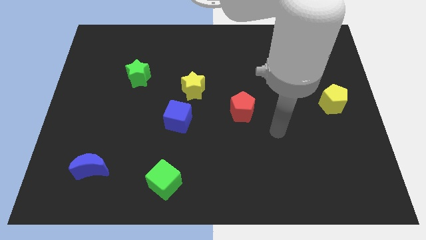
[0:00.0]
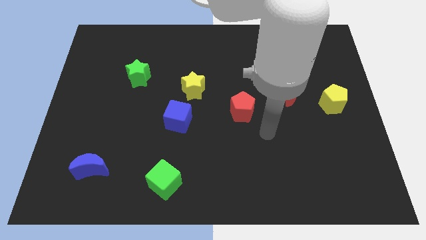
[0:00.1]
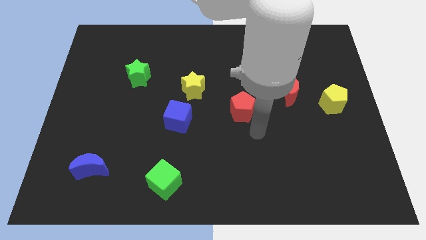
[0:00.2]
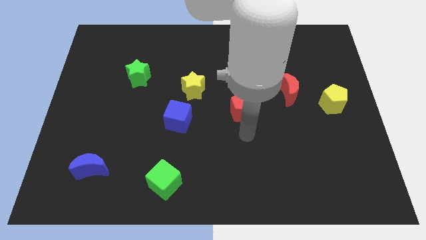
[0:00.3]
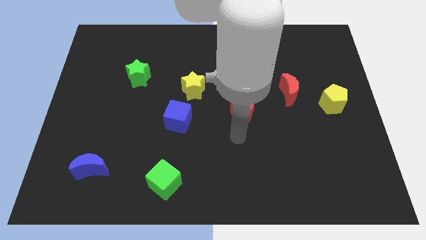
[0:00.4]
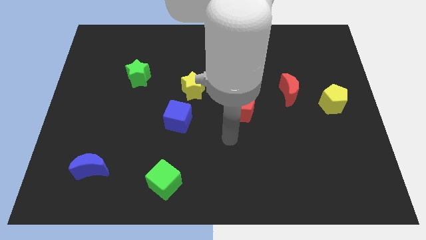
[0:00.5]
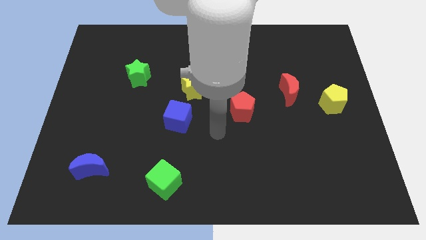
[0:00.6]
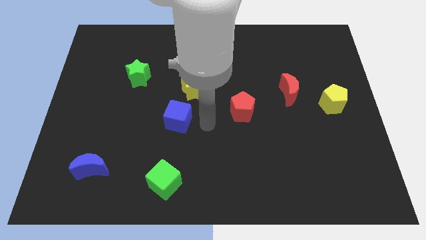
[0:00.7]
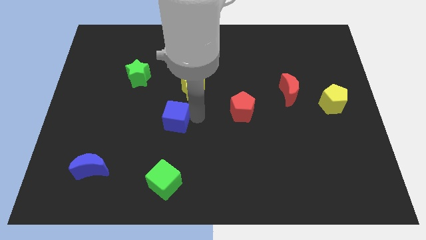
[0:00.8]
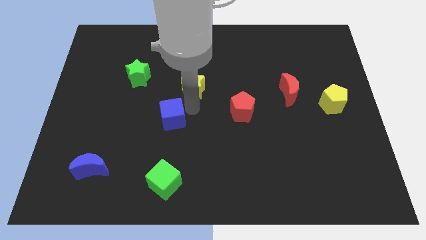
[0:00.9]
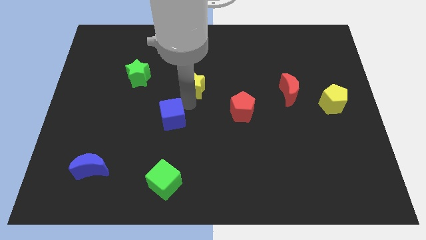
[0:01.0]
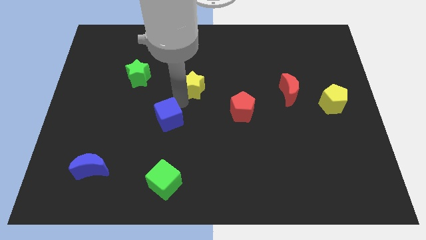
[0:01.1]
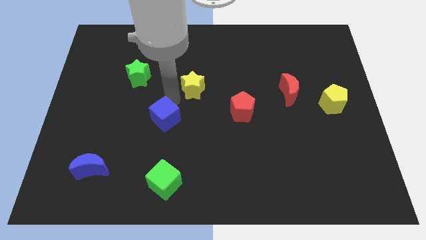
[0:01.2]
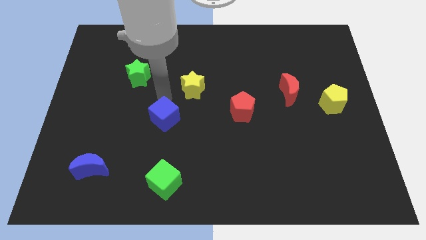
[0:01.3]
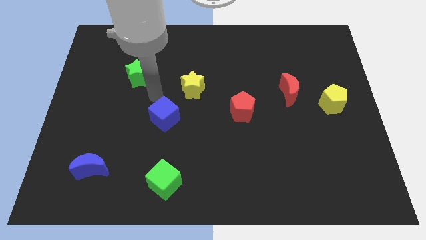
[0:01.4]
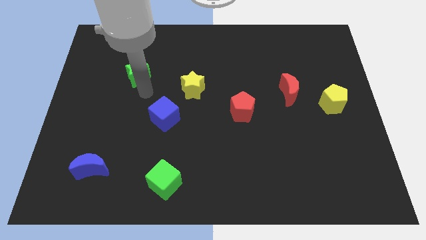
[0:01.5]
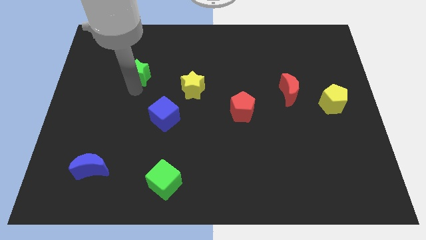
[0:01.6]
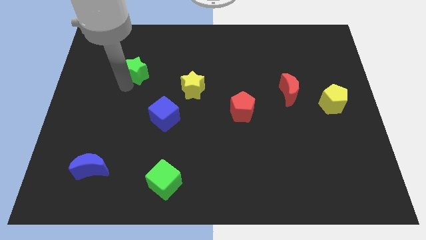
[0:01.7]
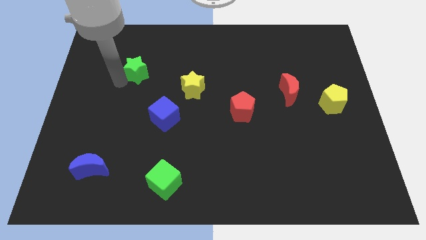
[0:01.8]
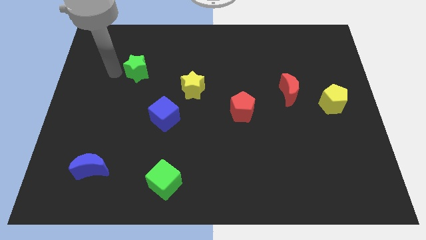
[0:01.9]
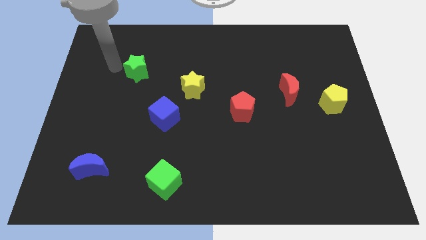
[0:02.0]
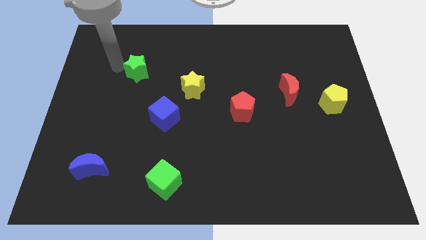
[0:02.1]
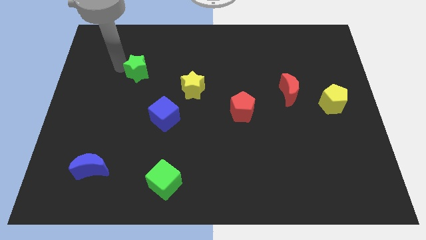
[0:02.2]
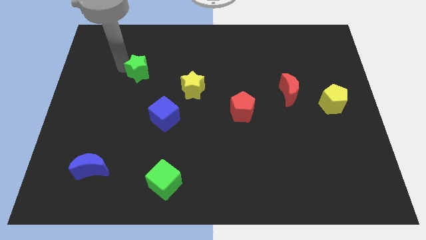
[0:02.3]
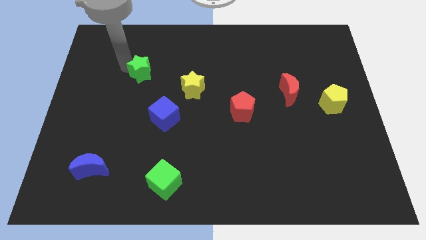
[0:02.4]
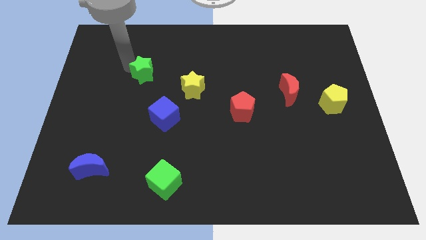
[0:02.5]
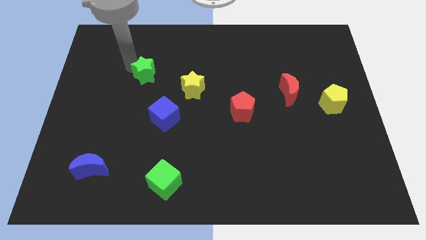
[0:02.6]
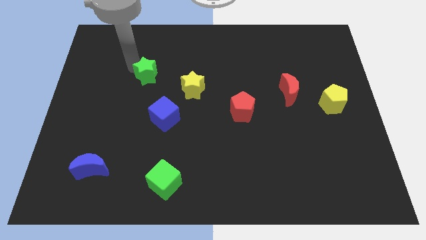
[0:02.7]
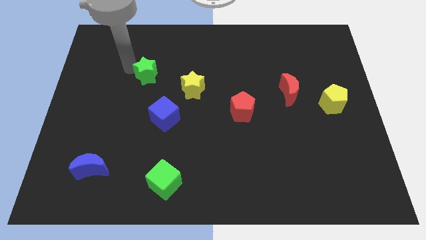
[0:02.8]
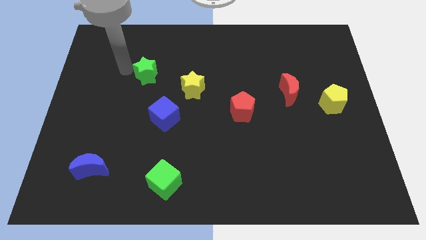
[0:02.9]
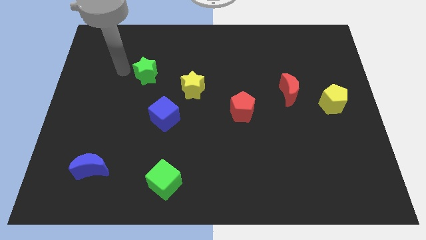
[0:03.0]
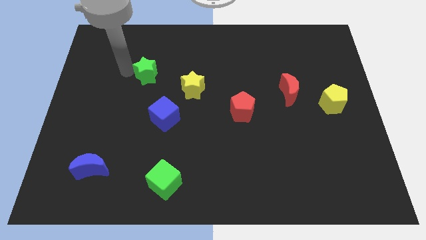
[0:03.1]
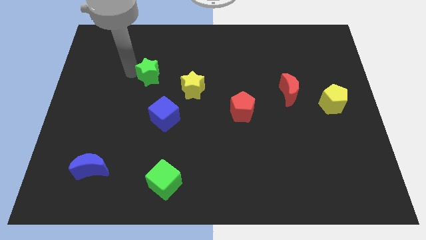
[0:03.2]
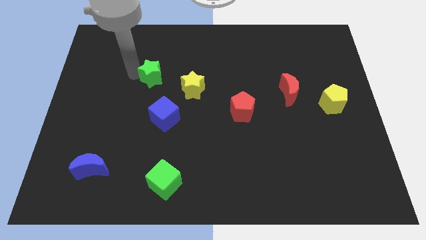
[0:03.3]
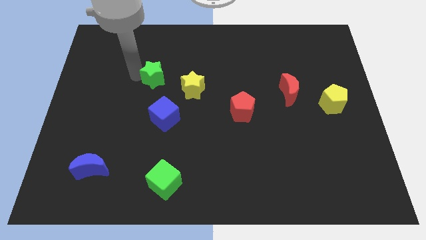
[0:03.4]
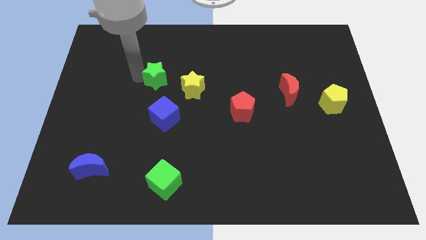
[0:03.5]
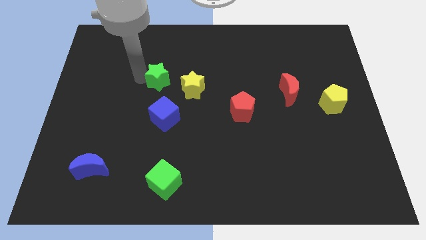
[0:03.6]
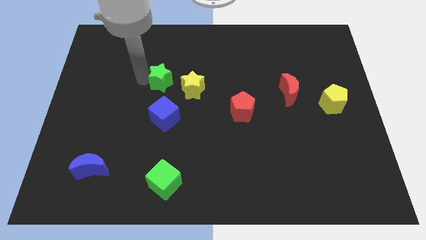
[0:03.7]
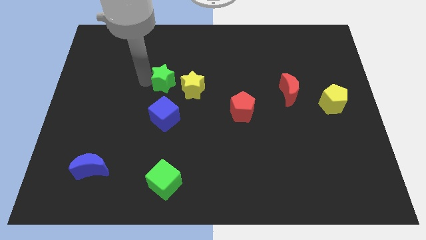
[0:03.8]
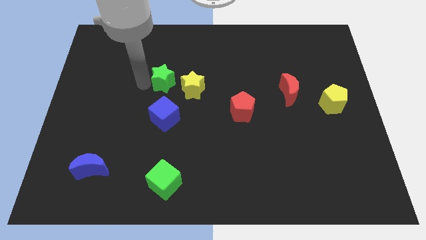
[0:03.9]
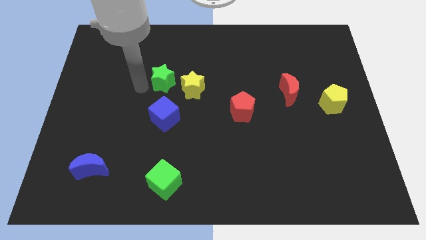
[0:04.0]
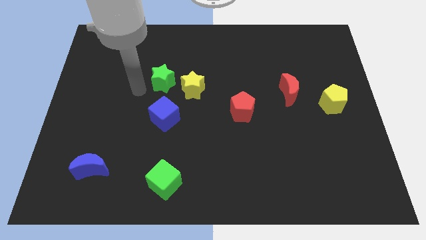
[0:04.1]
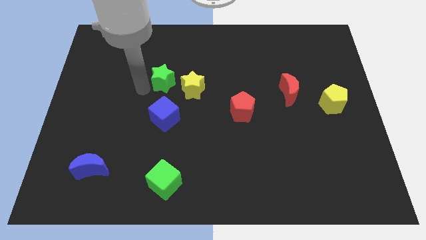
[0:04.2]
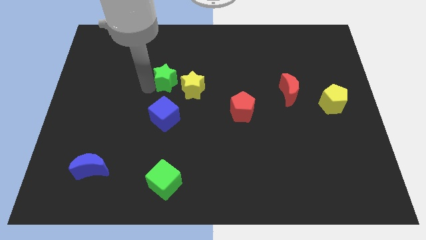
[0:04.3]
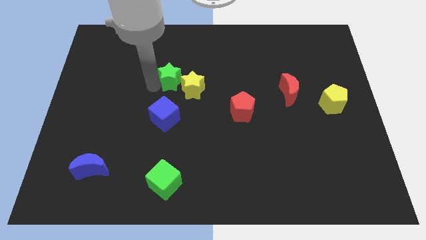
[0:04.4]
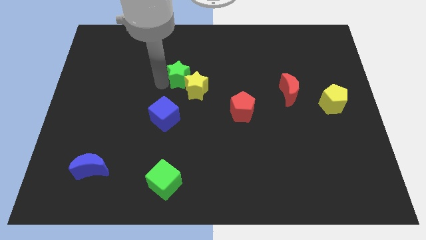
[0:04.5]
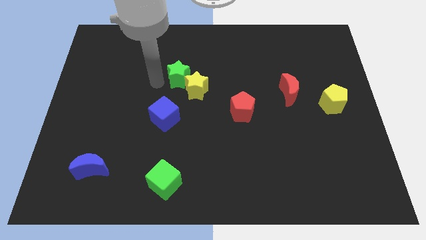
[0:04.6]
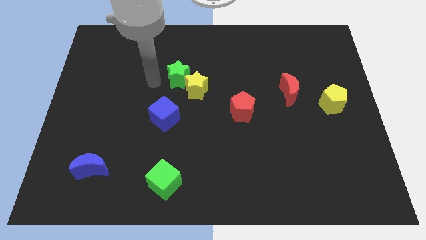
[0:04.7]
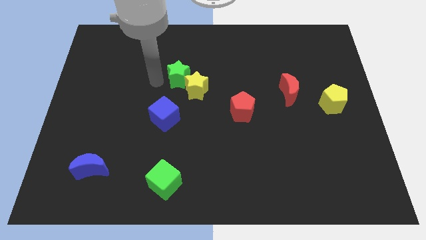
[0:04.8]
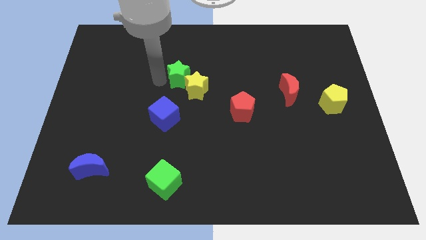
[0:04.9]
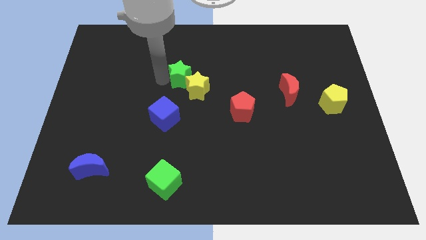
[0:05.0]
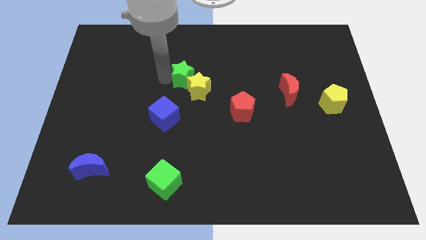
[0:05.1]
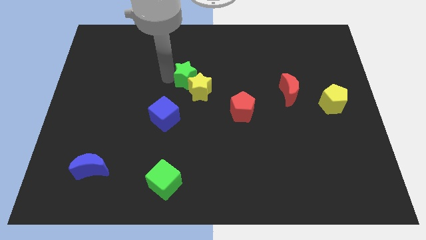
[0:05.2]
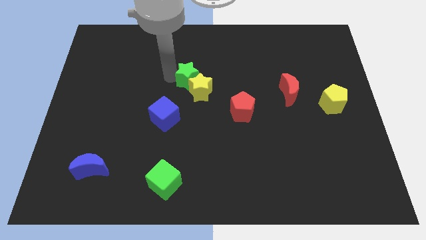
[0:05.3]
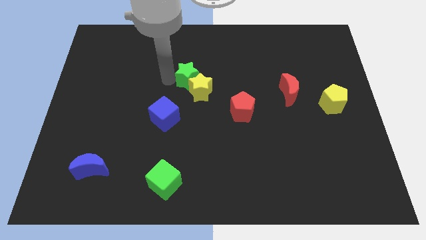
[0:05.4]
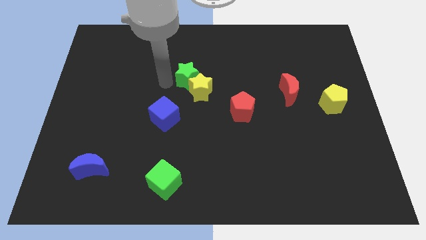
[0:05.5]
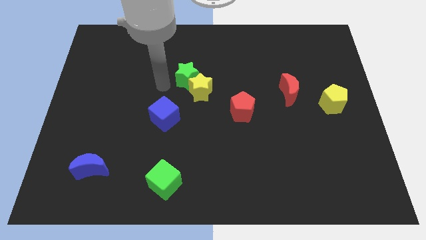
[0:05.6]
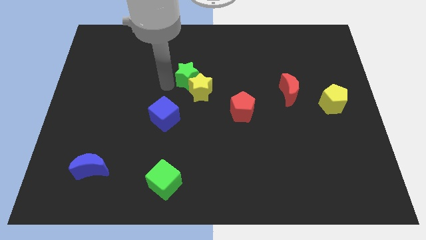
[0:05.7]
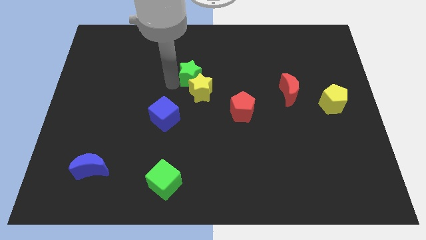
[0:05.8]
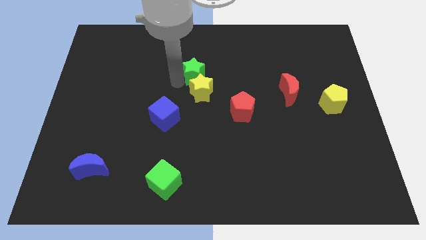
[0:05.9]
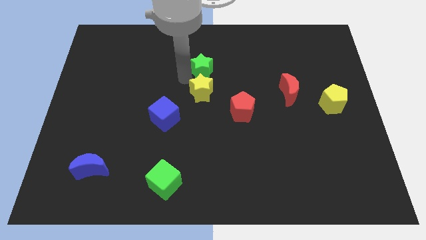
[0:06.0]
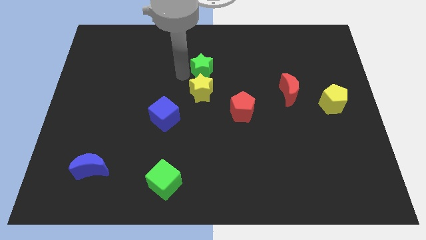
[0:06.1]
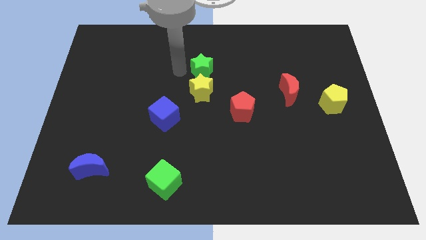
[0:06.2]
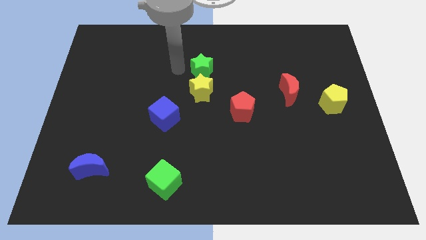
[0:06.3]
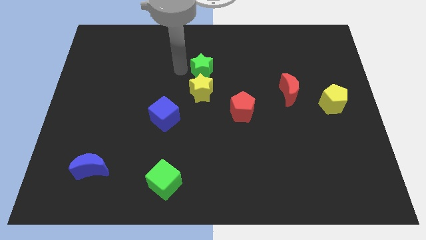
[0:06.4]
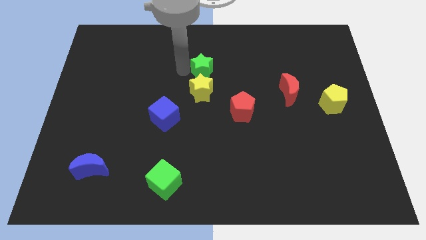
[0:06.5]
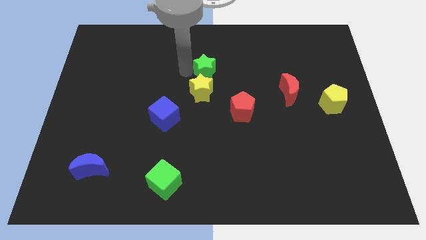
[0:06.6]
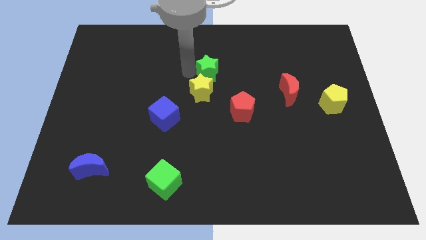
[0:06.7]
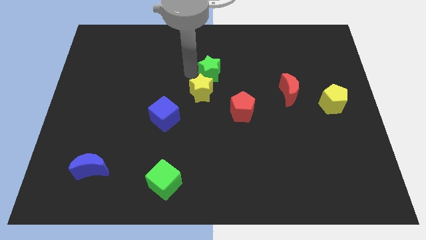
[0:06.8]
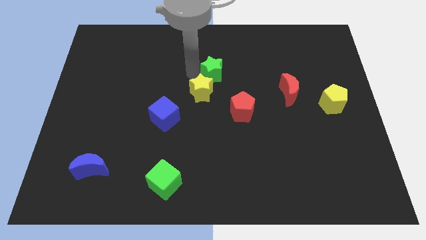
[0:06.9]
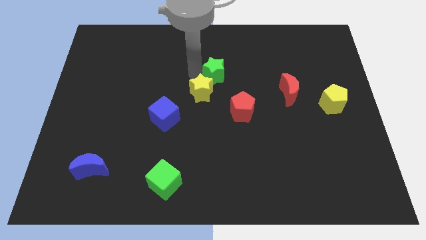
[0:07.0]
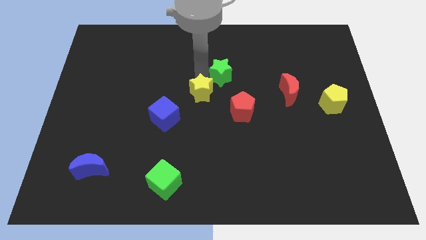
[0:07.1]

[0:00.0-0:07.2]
push the green star right

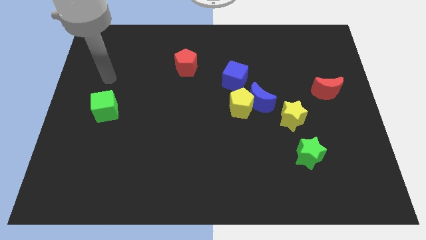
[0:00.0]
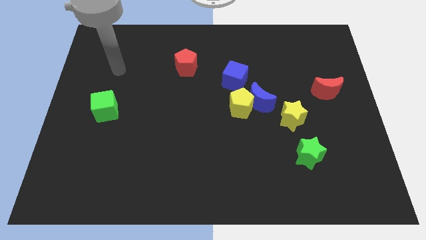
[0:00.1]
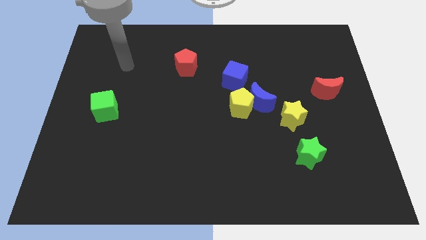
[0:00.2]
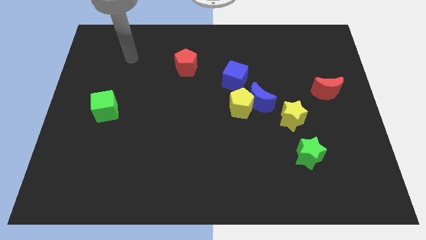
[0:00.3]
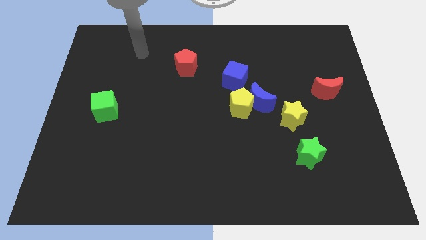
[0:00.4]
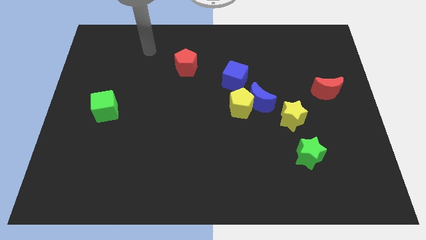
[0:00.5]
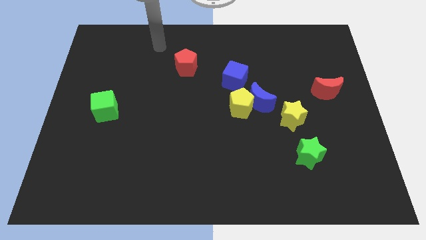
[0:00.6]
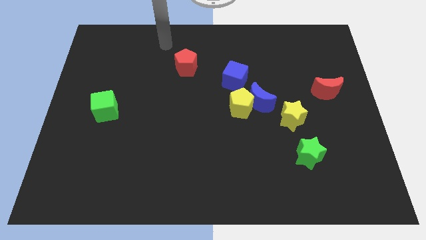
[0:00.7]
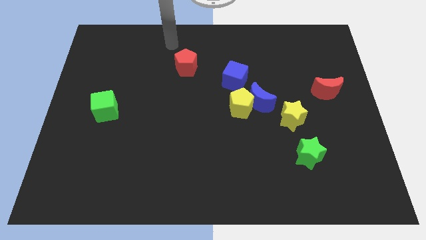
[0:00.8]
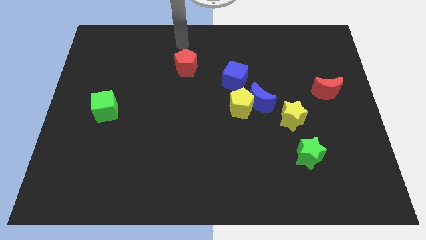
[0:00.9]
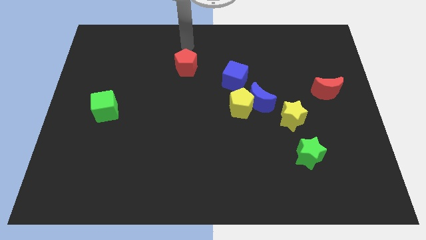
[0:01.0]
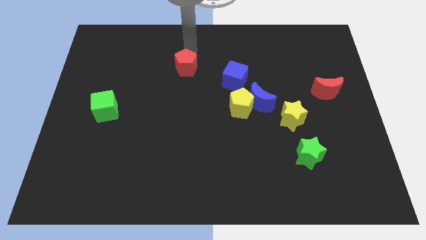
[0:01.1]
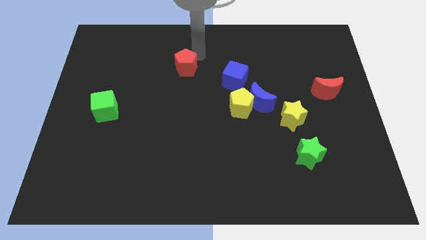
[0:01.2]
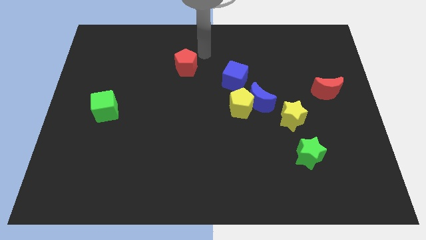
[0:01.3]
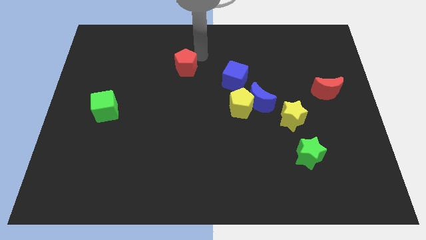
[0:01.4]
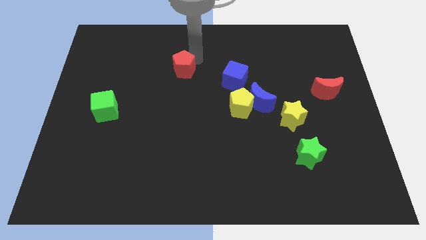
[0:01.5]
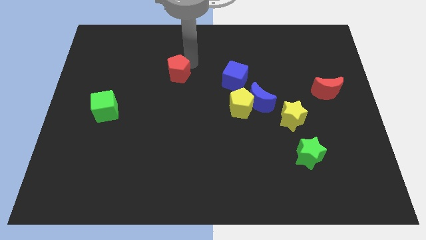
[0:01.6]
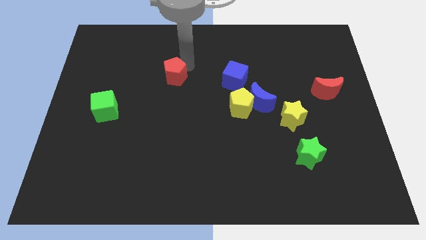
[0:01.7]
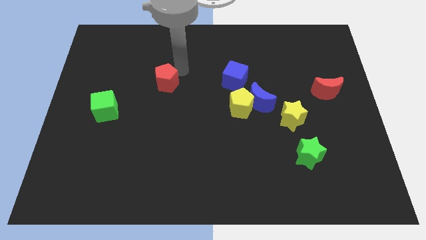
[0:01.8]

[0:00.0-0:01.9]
move the red pentagon downwards and then to the left a bit
